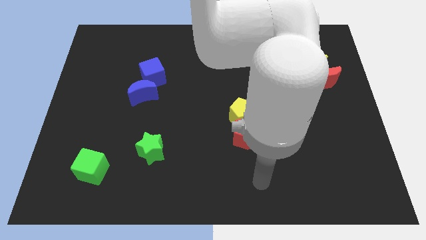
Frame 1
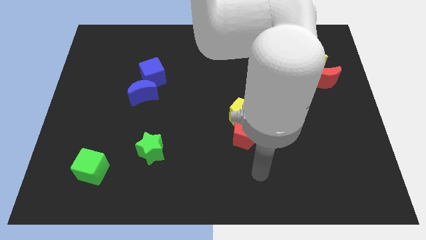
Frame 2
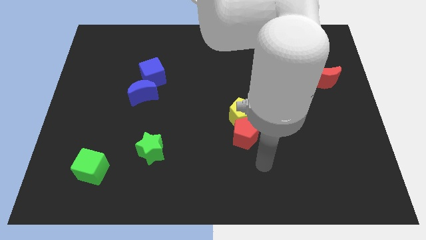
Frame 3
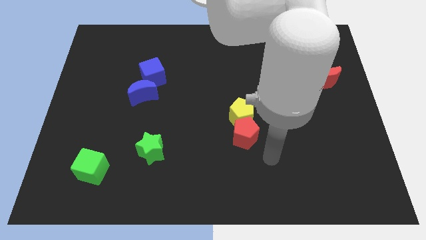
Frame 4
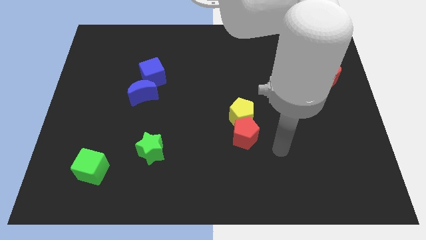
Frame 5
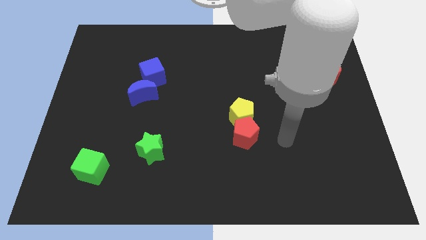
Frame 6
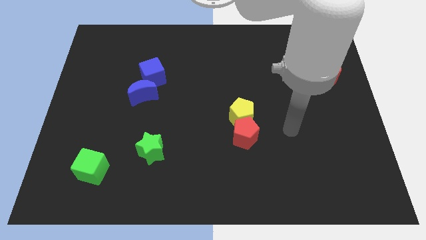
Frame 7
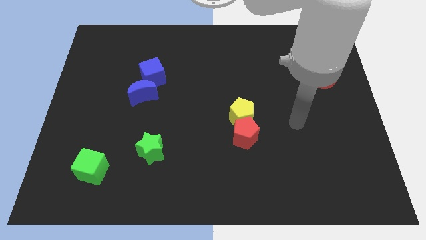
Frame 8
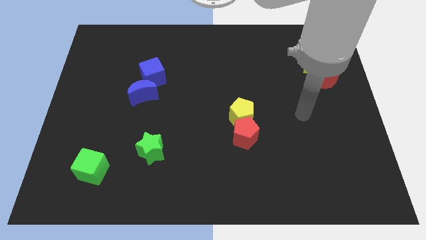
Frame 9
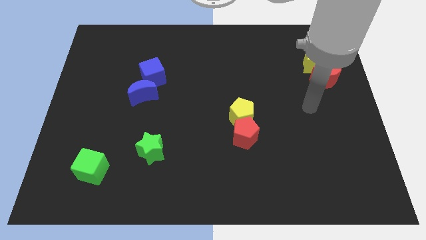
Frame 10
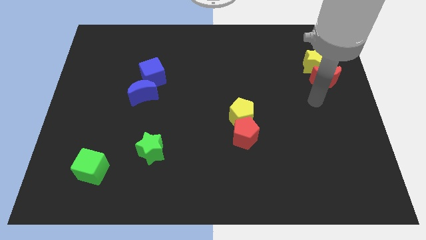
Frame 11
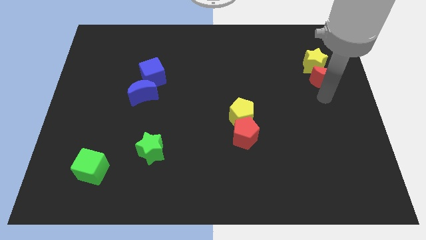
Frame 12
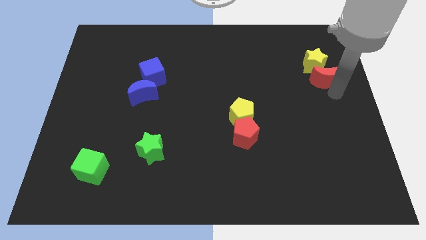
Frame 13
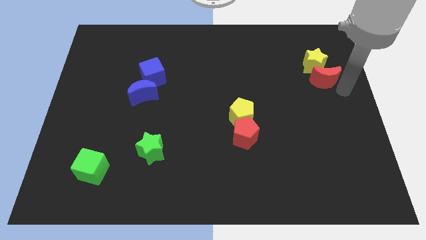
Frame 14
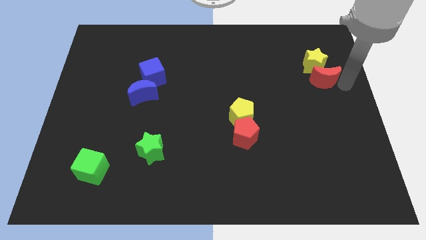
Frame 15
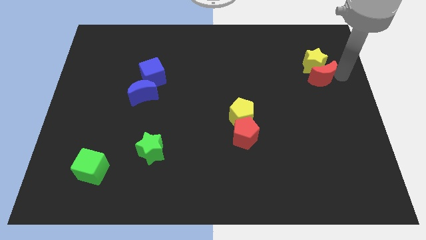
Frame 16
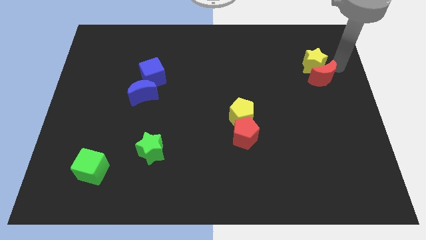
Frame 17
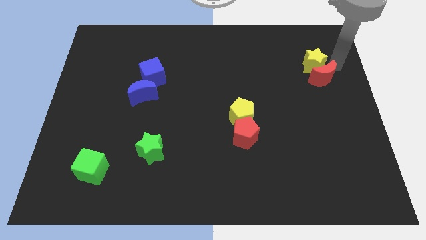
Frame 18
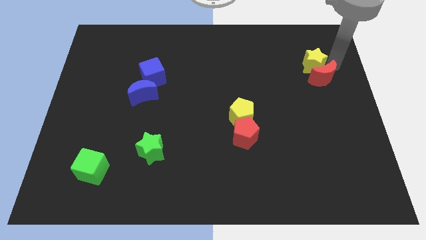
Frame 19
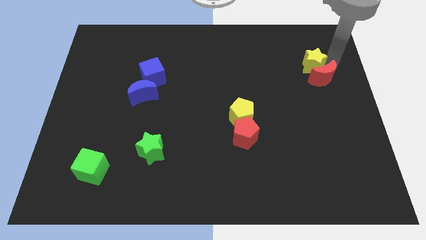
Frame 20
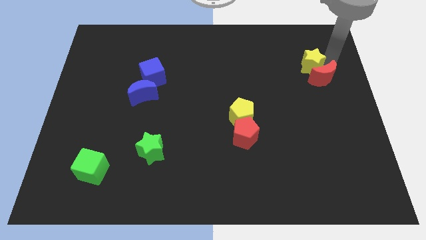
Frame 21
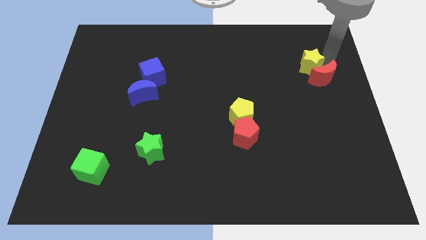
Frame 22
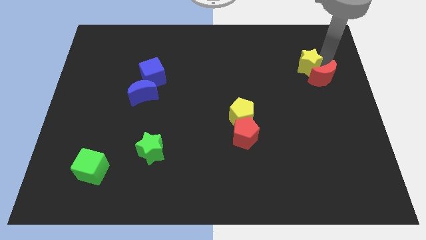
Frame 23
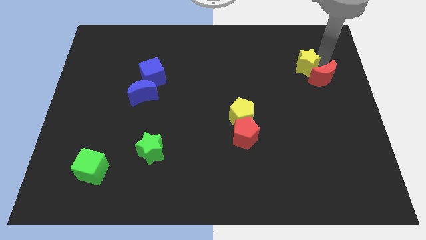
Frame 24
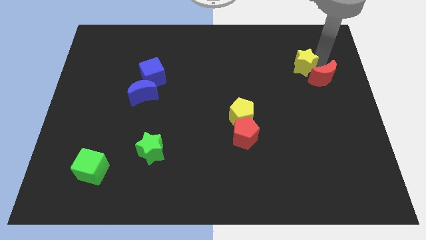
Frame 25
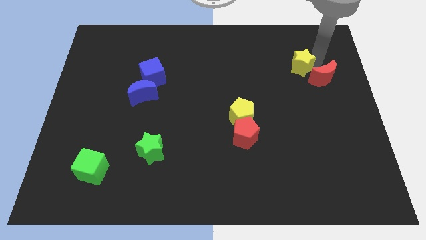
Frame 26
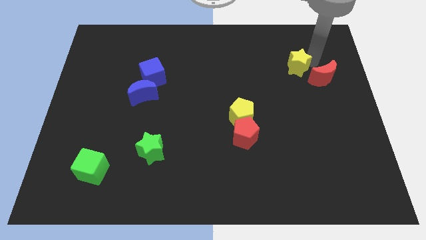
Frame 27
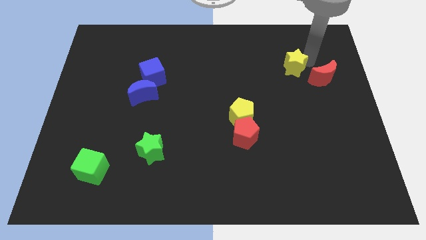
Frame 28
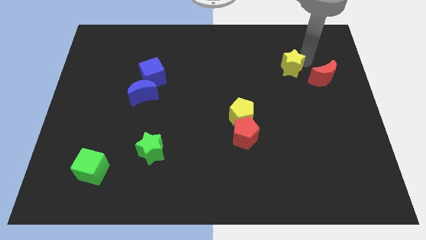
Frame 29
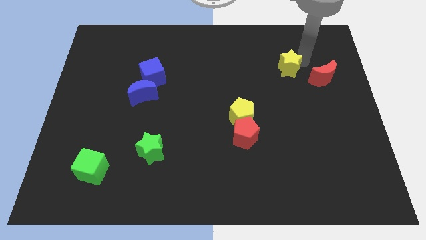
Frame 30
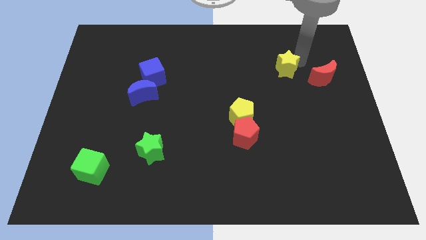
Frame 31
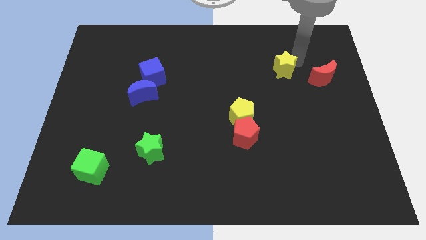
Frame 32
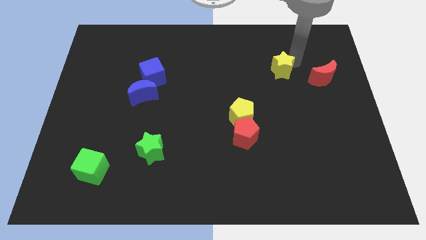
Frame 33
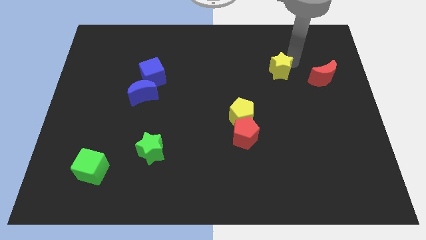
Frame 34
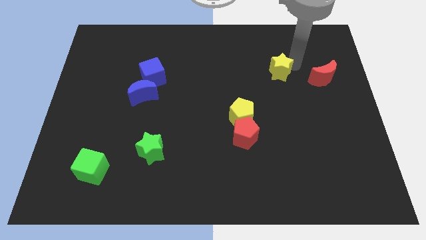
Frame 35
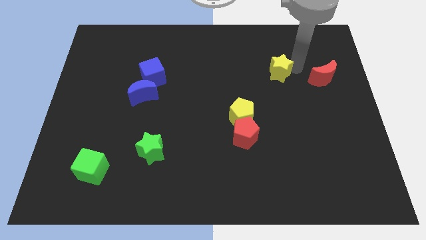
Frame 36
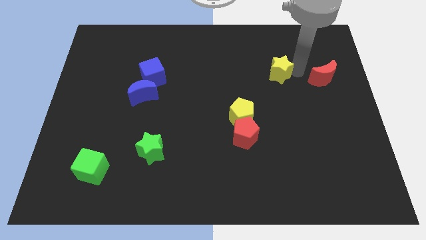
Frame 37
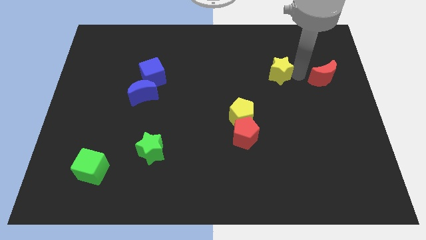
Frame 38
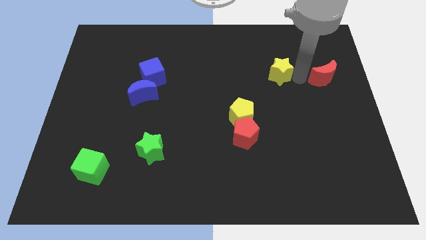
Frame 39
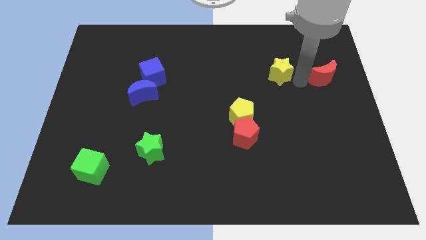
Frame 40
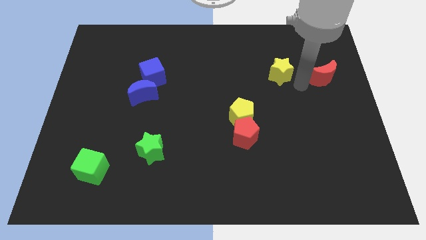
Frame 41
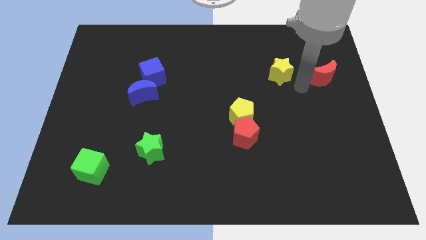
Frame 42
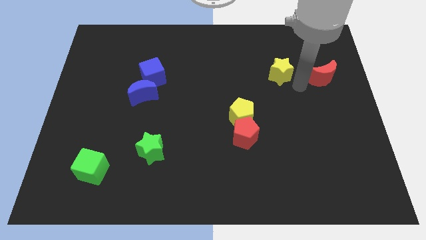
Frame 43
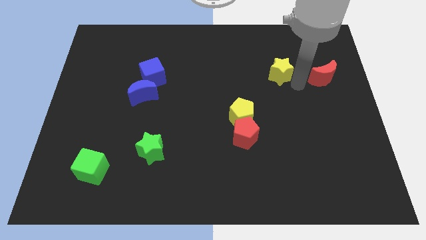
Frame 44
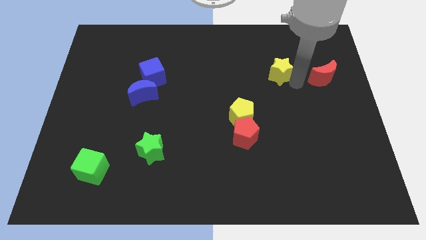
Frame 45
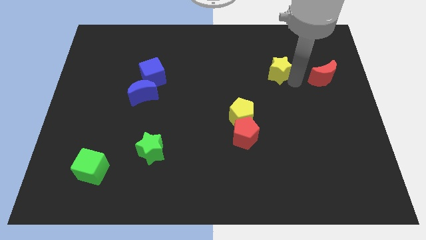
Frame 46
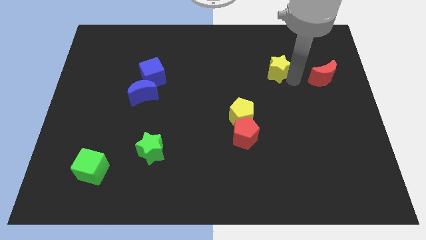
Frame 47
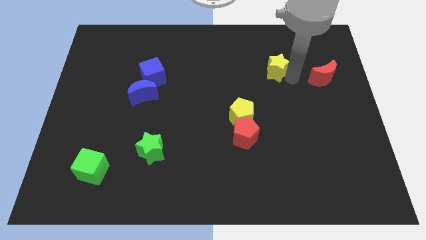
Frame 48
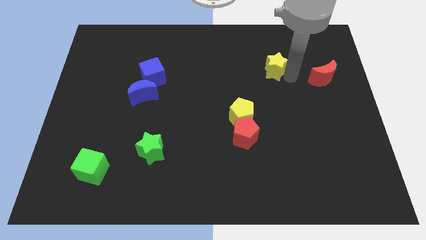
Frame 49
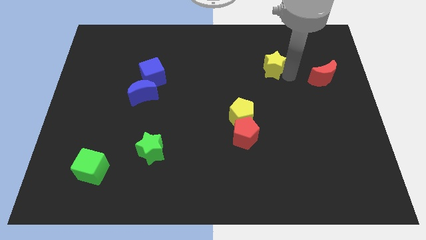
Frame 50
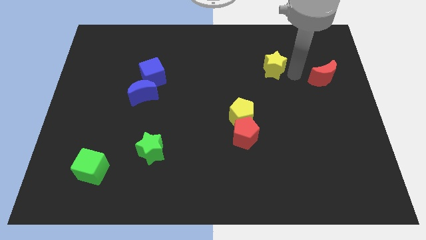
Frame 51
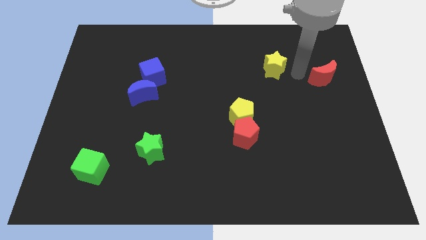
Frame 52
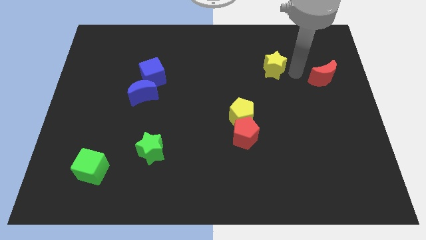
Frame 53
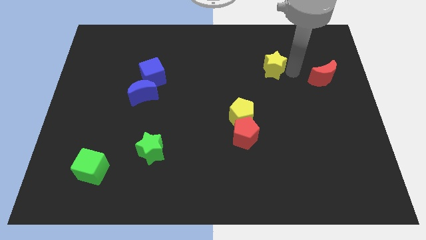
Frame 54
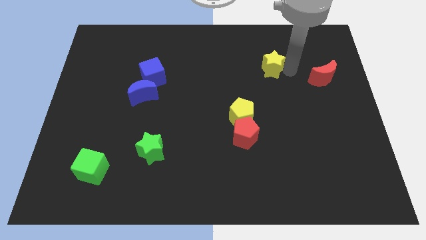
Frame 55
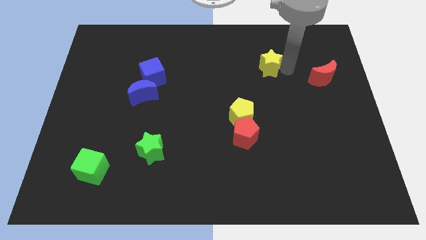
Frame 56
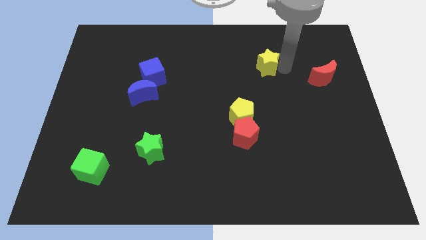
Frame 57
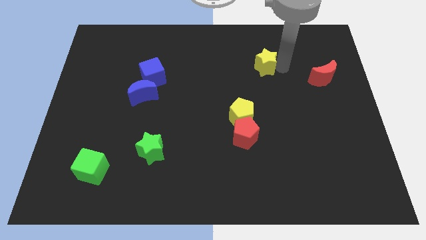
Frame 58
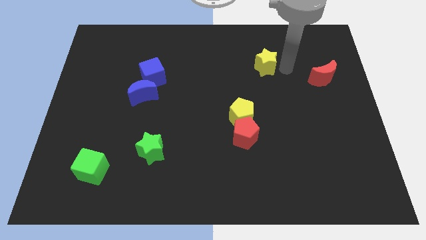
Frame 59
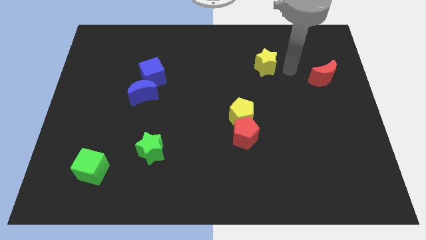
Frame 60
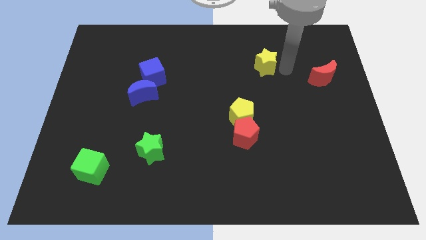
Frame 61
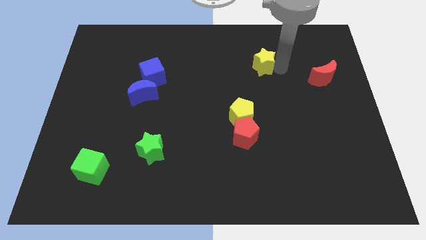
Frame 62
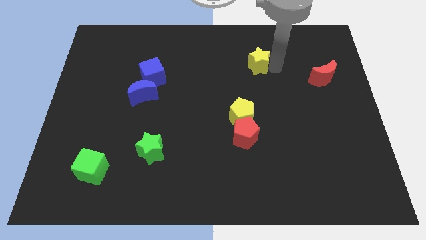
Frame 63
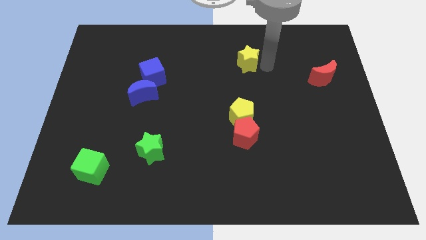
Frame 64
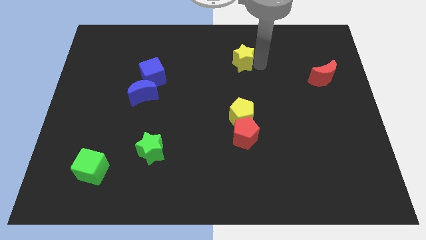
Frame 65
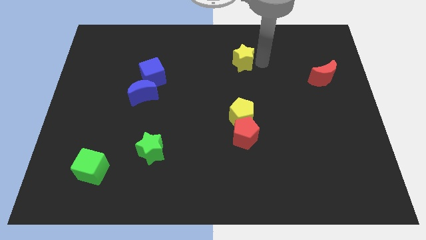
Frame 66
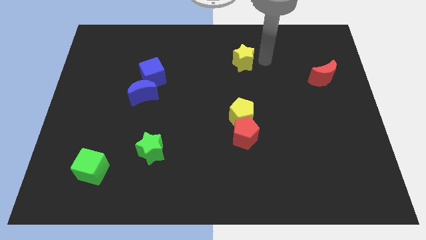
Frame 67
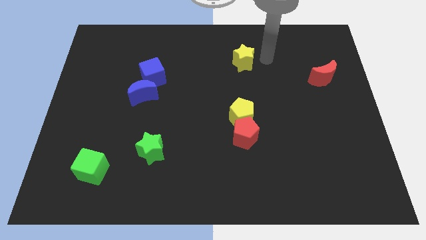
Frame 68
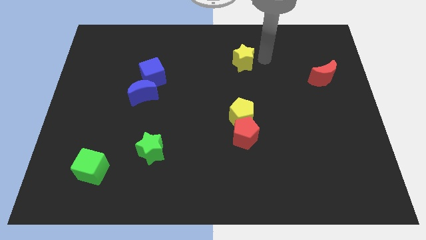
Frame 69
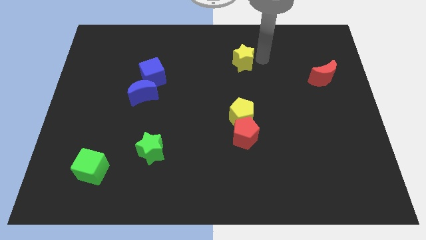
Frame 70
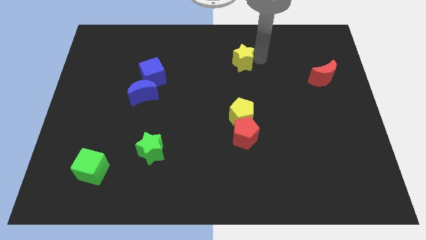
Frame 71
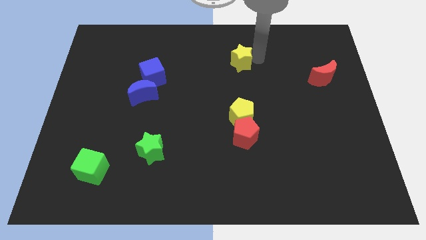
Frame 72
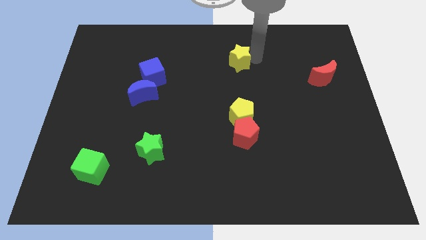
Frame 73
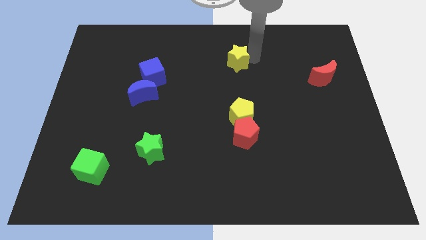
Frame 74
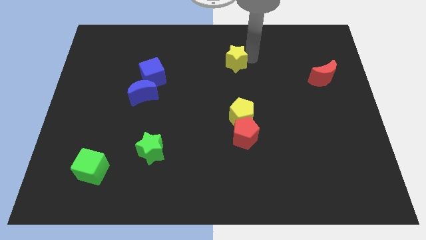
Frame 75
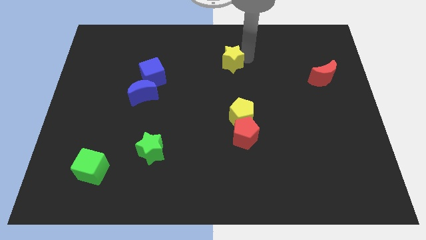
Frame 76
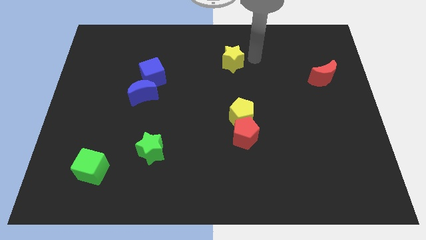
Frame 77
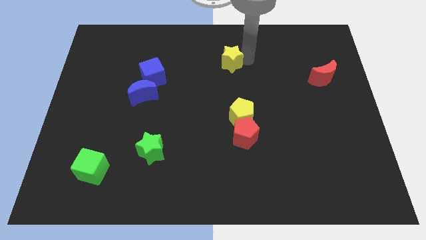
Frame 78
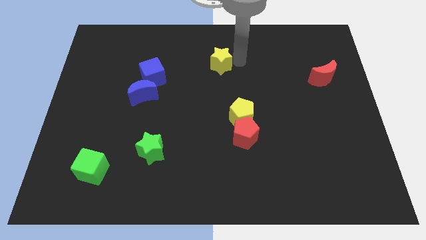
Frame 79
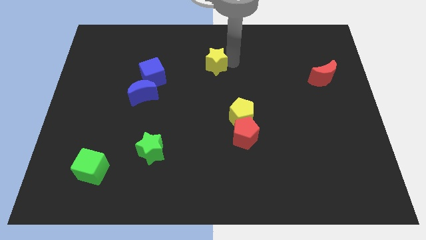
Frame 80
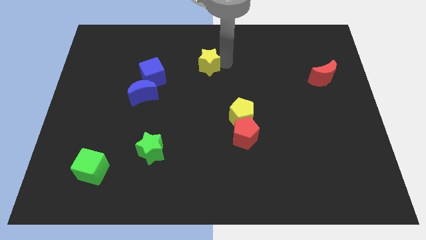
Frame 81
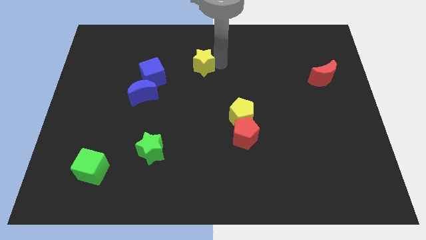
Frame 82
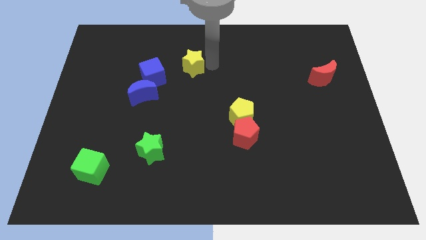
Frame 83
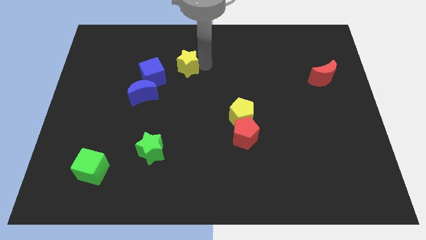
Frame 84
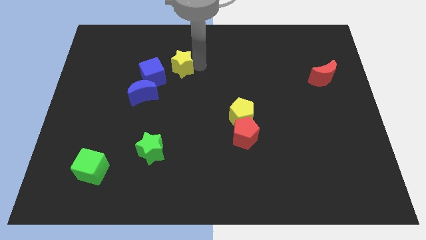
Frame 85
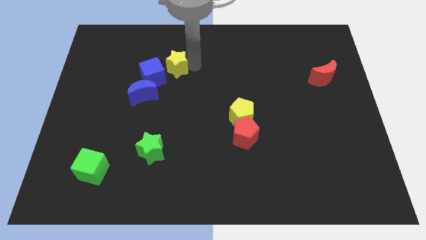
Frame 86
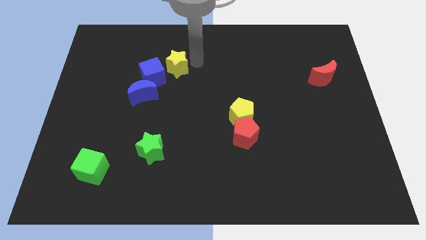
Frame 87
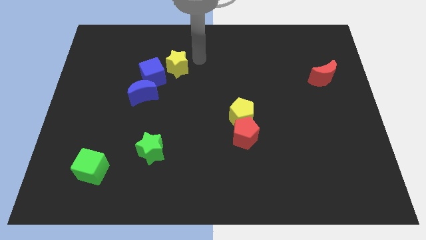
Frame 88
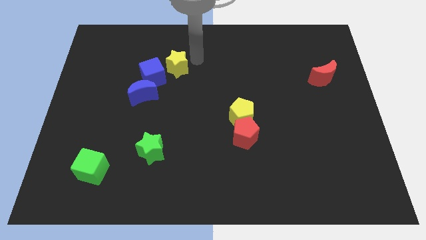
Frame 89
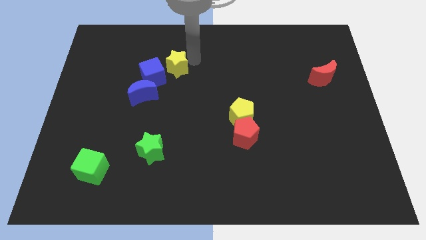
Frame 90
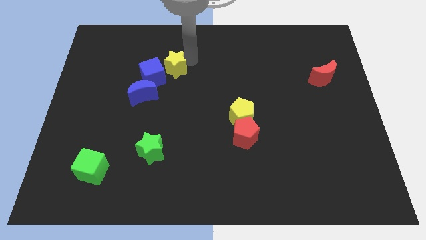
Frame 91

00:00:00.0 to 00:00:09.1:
put the yellow star to the blue cube
